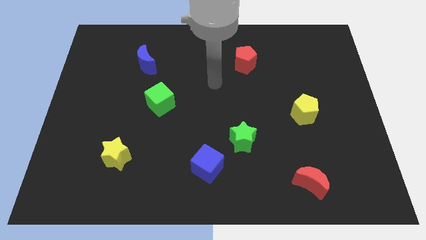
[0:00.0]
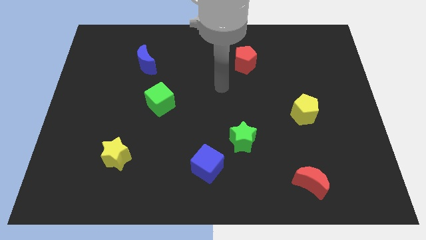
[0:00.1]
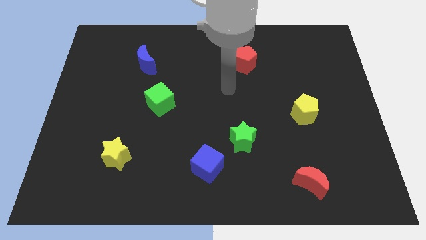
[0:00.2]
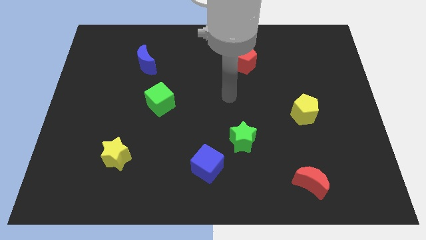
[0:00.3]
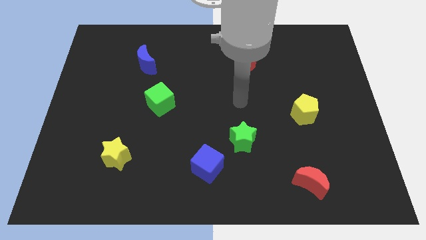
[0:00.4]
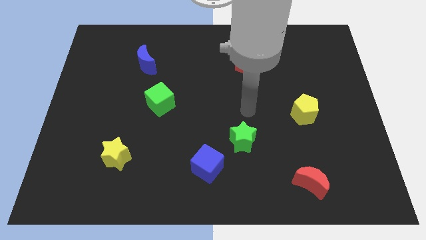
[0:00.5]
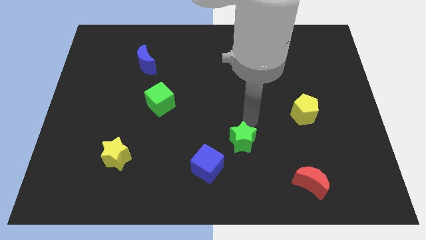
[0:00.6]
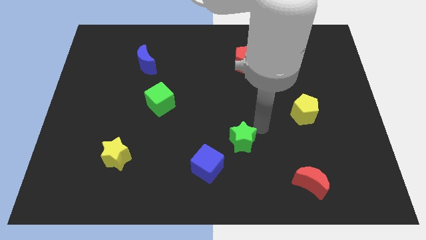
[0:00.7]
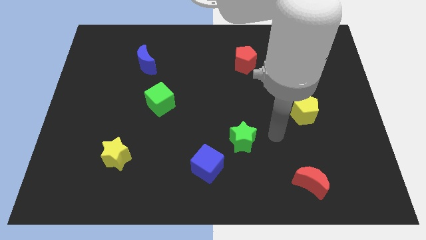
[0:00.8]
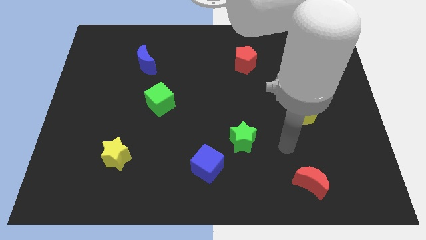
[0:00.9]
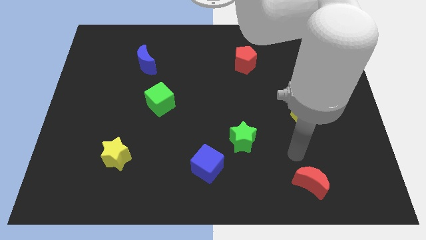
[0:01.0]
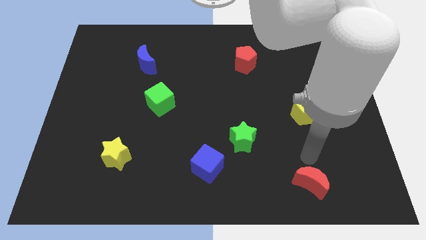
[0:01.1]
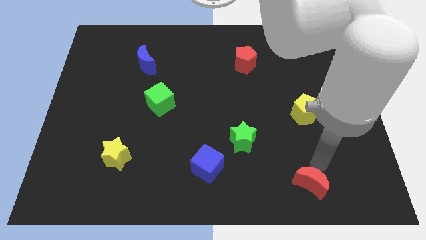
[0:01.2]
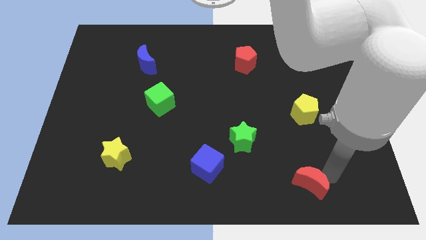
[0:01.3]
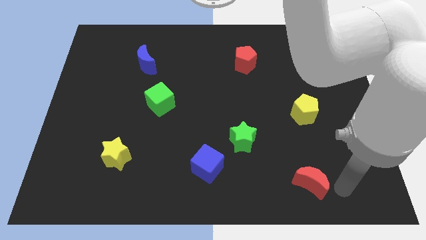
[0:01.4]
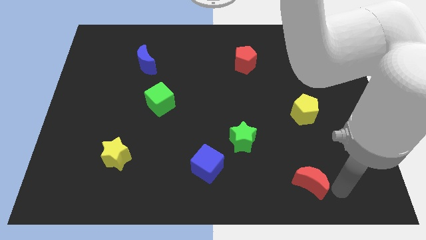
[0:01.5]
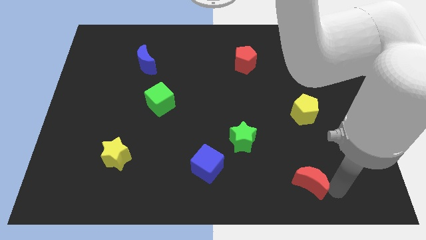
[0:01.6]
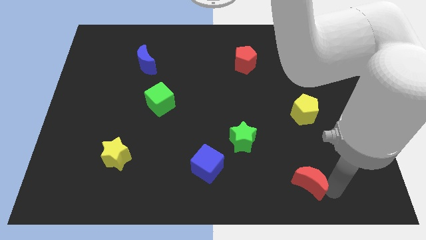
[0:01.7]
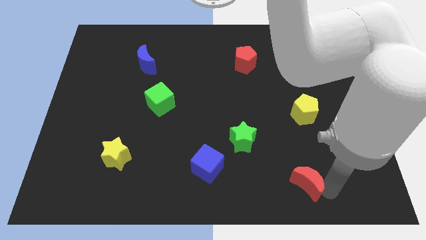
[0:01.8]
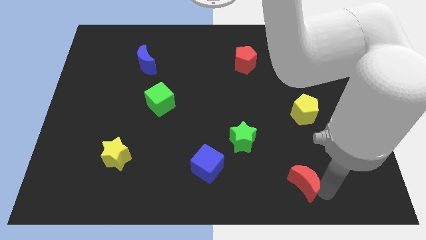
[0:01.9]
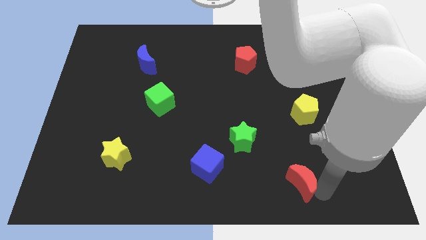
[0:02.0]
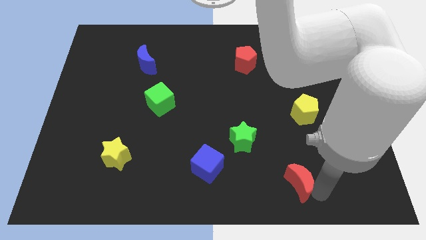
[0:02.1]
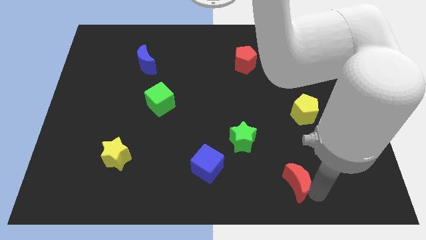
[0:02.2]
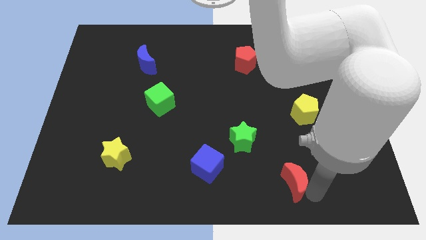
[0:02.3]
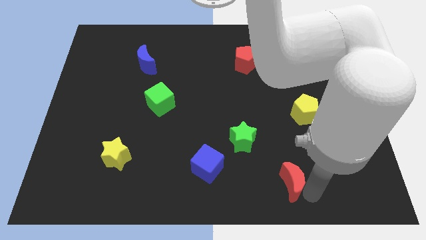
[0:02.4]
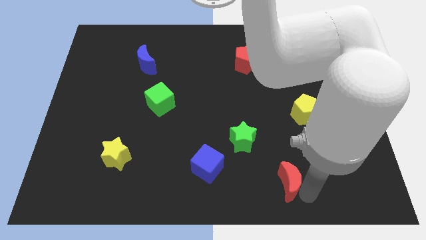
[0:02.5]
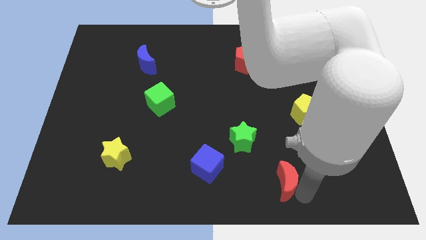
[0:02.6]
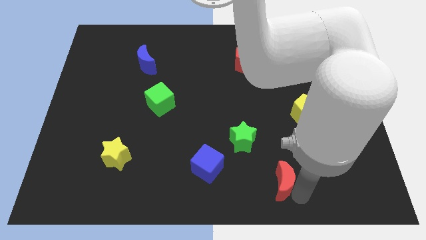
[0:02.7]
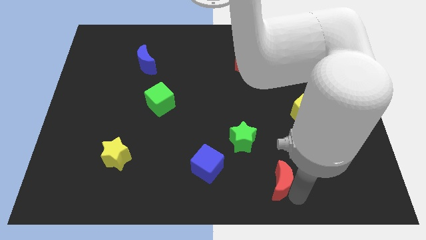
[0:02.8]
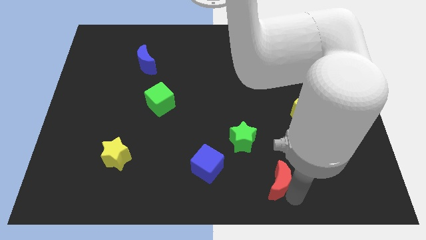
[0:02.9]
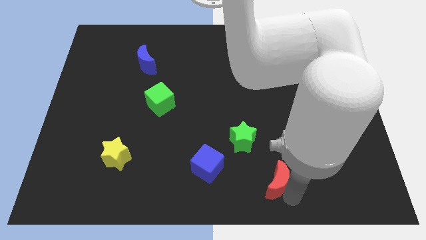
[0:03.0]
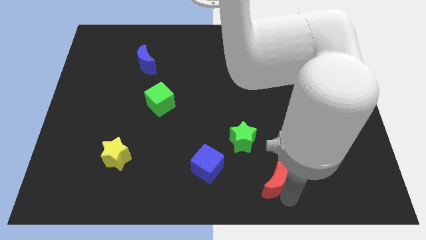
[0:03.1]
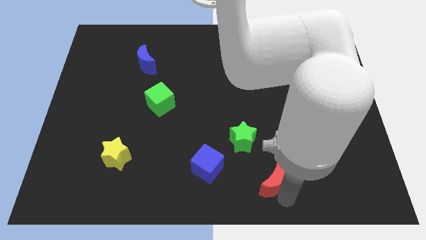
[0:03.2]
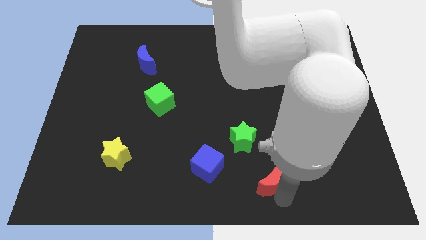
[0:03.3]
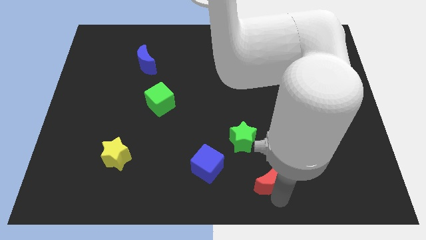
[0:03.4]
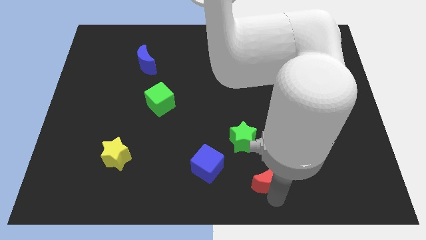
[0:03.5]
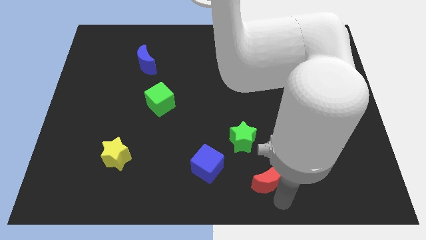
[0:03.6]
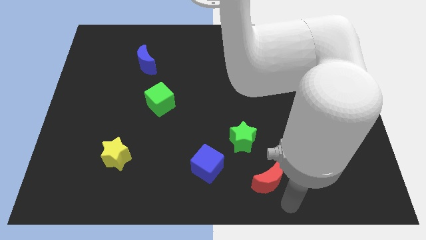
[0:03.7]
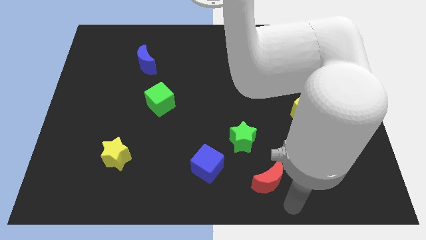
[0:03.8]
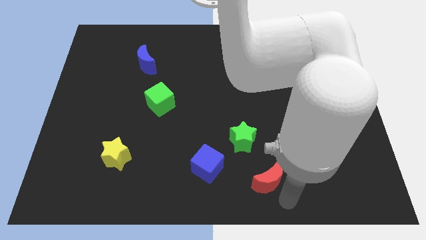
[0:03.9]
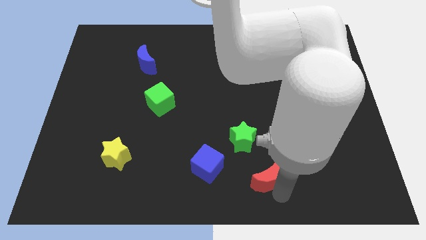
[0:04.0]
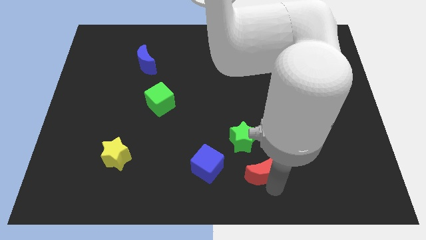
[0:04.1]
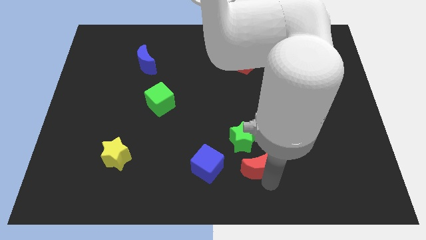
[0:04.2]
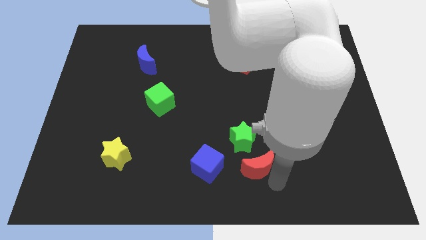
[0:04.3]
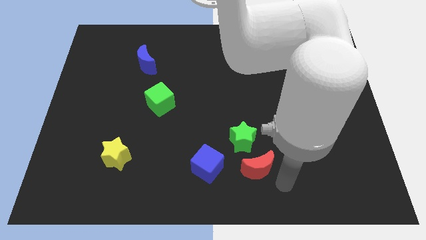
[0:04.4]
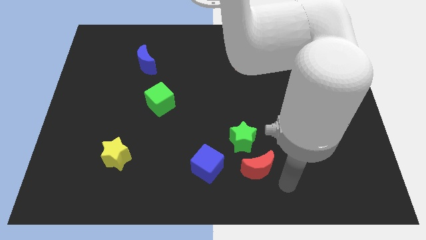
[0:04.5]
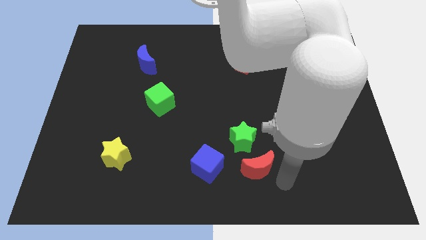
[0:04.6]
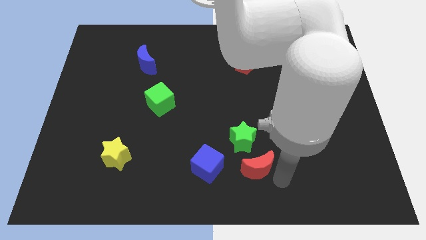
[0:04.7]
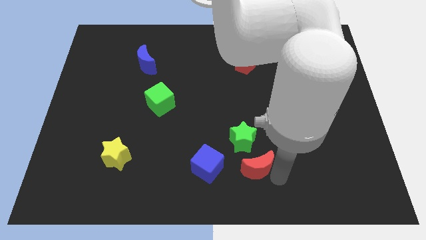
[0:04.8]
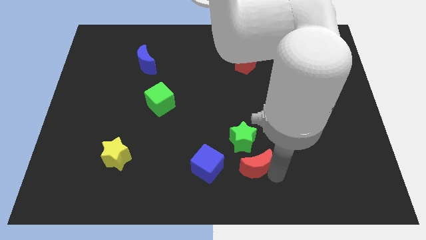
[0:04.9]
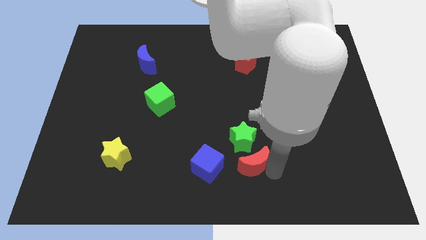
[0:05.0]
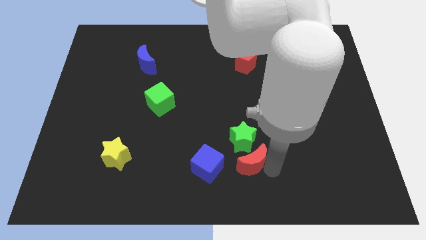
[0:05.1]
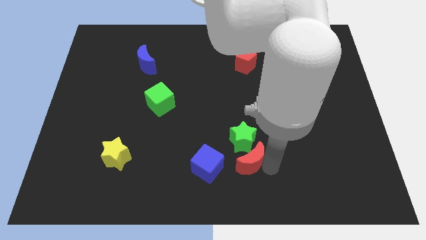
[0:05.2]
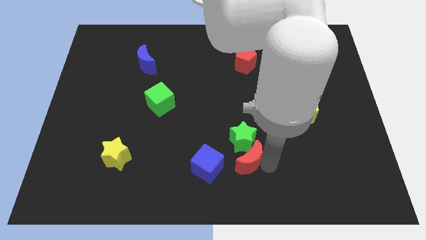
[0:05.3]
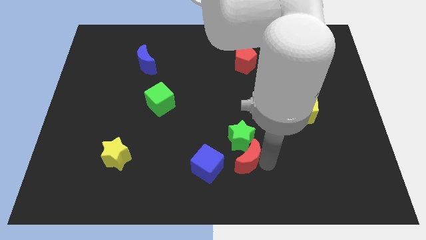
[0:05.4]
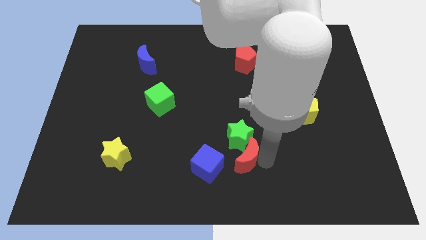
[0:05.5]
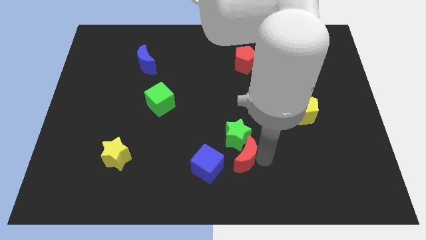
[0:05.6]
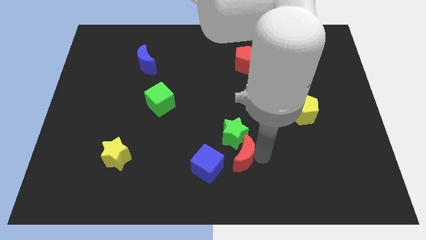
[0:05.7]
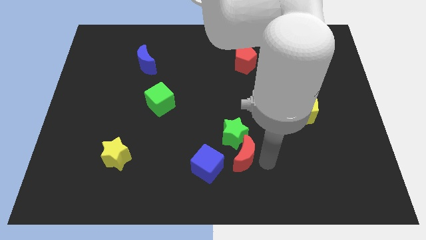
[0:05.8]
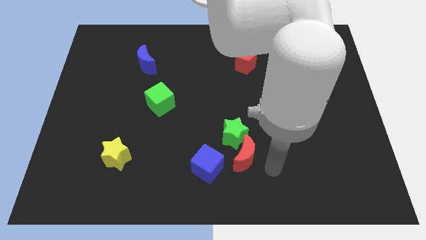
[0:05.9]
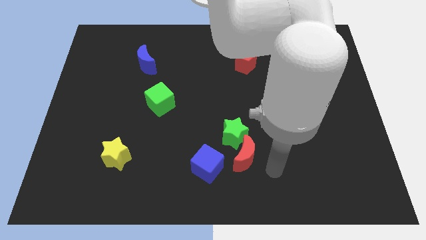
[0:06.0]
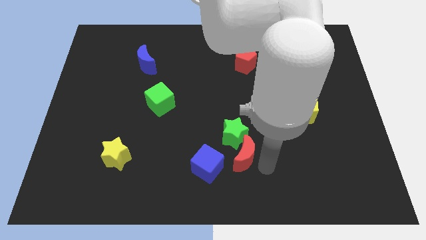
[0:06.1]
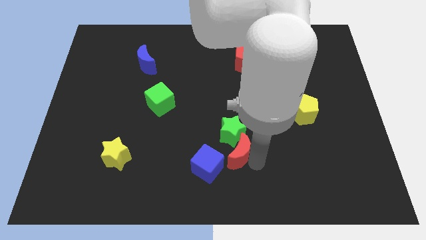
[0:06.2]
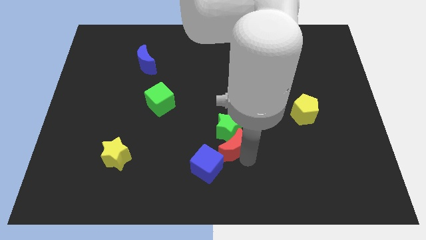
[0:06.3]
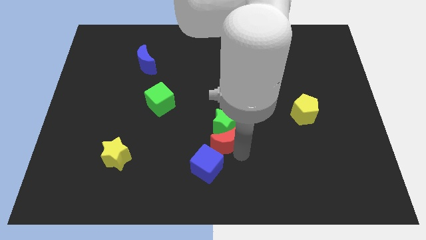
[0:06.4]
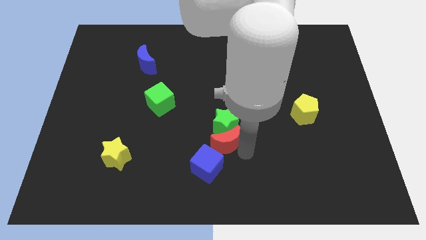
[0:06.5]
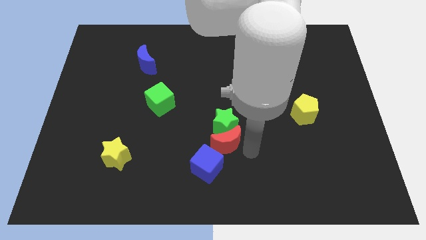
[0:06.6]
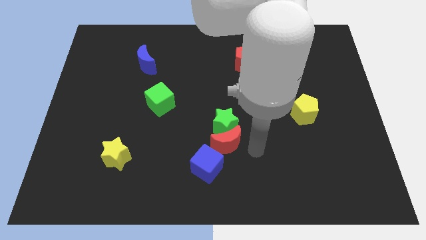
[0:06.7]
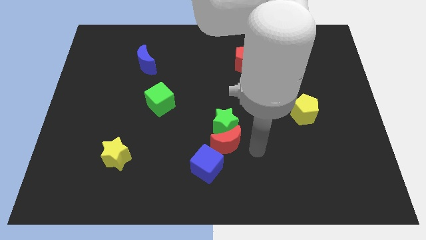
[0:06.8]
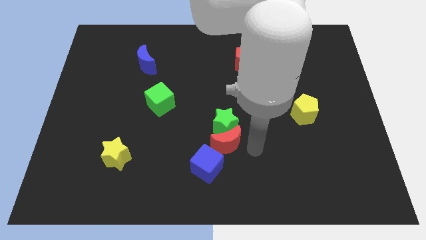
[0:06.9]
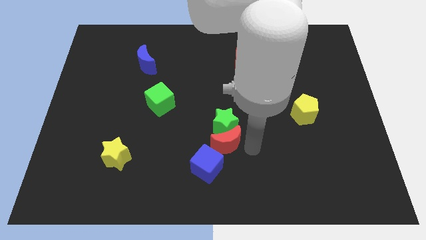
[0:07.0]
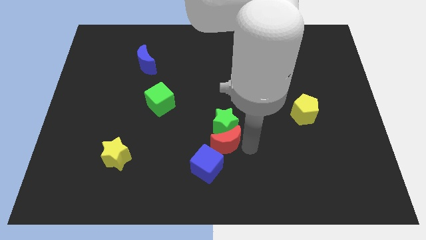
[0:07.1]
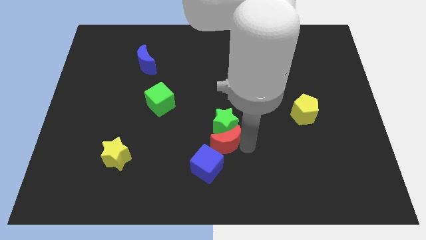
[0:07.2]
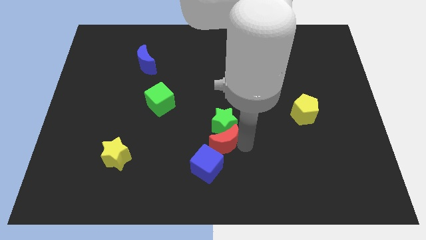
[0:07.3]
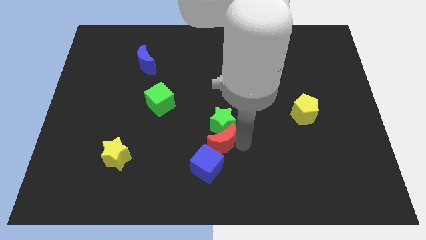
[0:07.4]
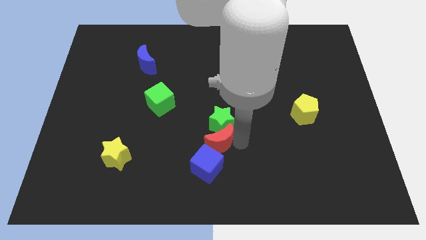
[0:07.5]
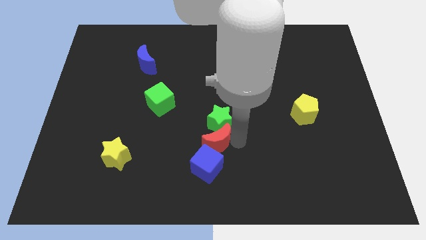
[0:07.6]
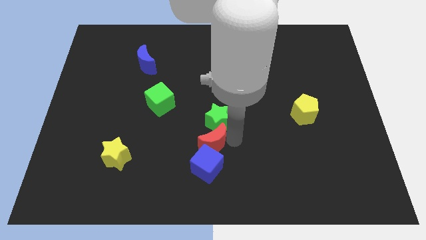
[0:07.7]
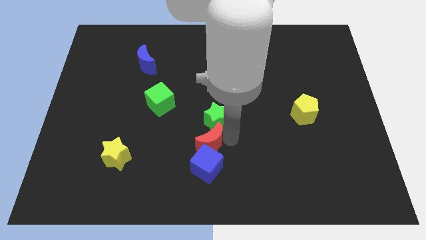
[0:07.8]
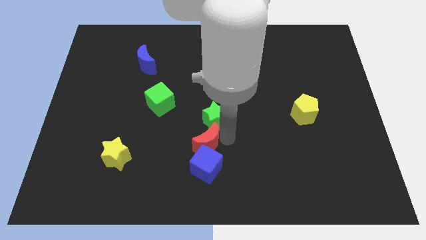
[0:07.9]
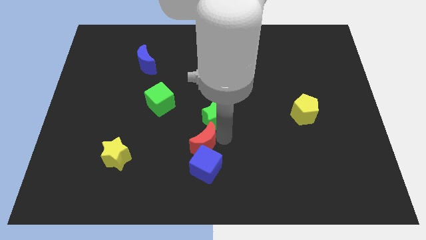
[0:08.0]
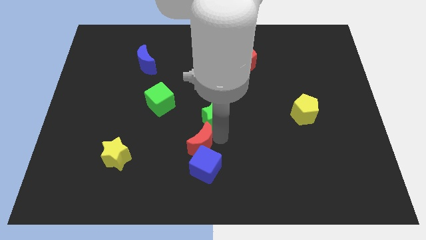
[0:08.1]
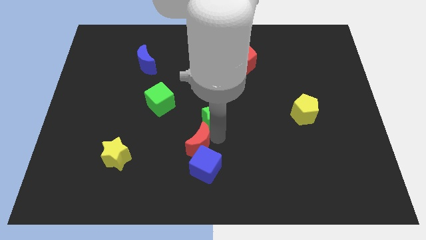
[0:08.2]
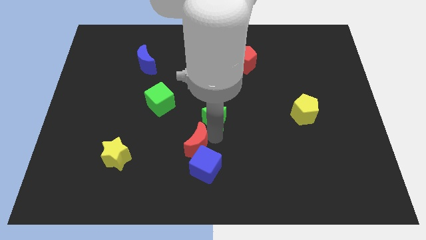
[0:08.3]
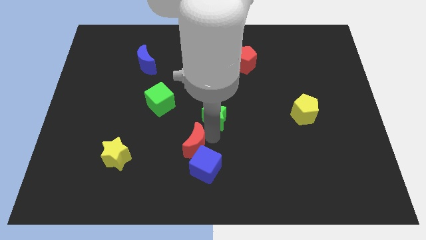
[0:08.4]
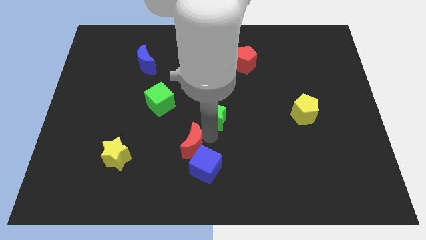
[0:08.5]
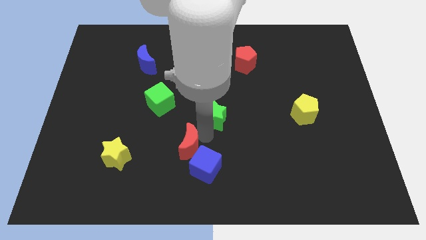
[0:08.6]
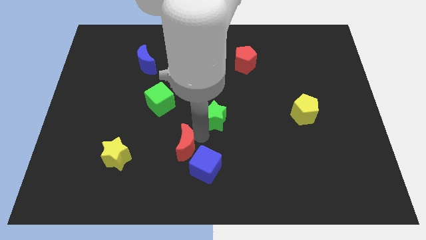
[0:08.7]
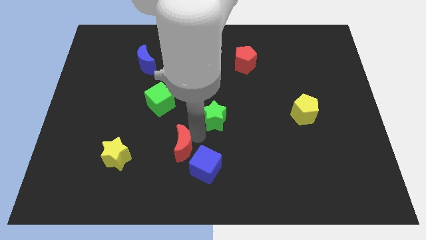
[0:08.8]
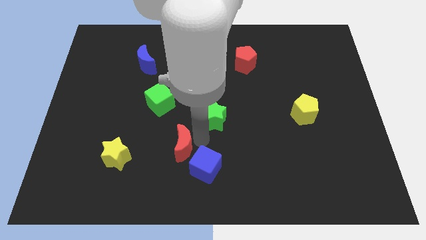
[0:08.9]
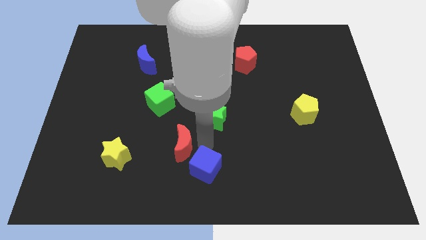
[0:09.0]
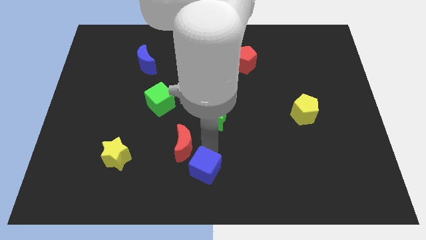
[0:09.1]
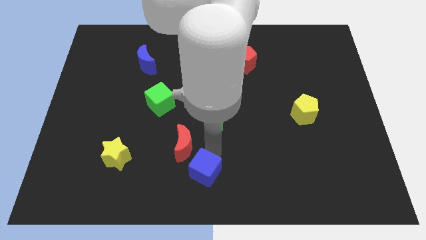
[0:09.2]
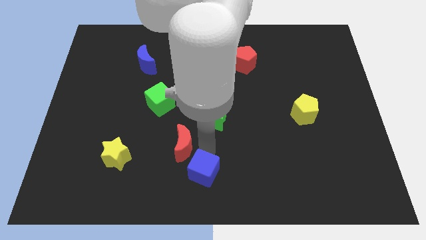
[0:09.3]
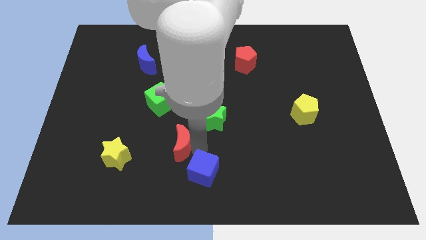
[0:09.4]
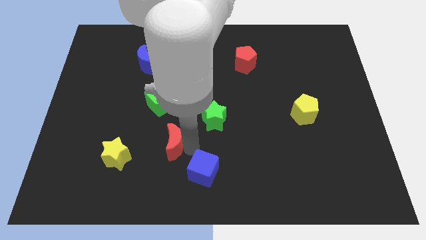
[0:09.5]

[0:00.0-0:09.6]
put the red moon below the green cube
